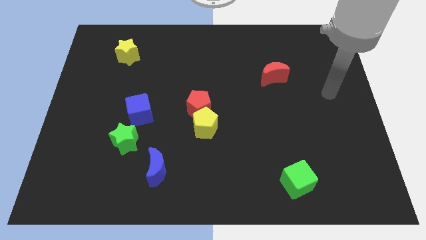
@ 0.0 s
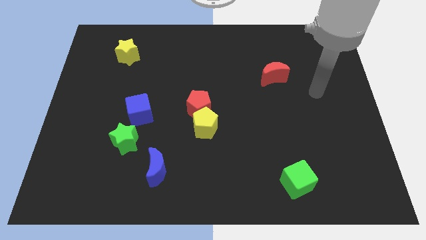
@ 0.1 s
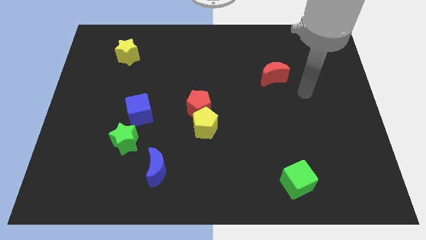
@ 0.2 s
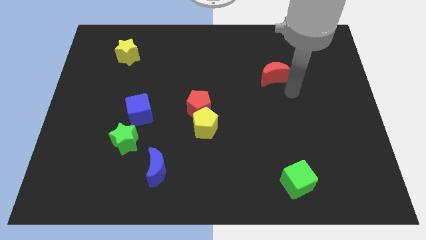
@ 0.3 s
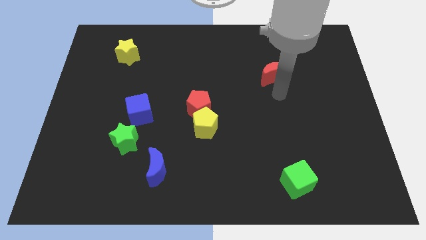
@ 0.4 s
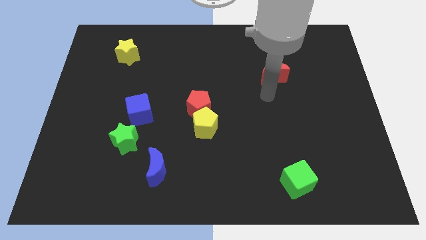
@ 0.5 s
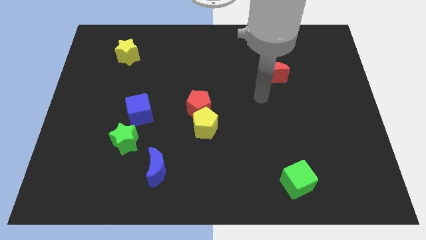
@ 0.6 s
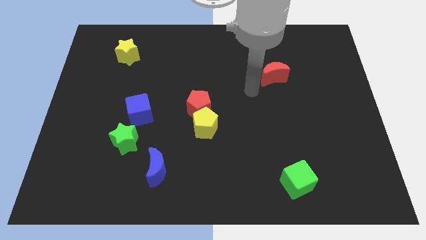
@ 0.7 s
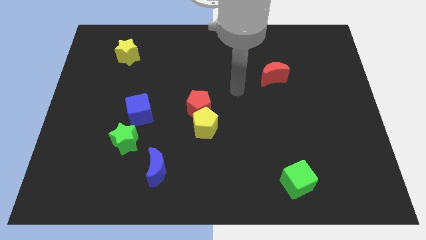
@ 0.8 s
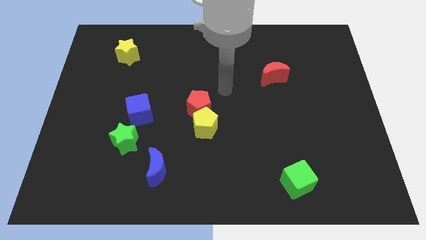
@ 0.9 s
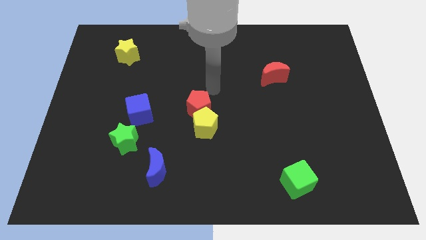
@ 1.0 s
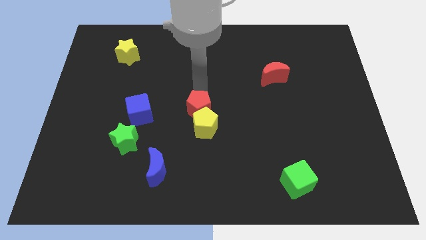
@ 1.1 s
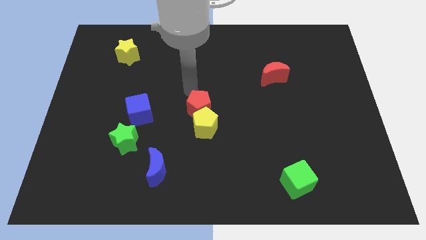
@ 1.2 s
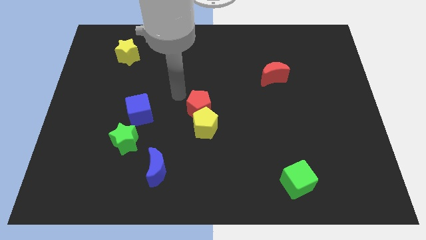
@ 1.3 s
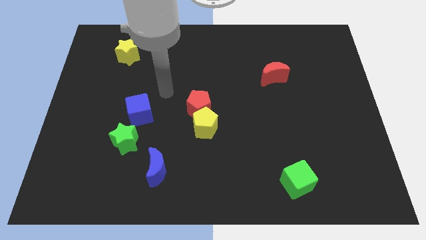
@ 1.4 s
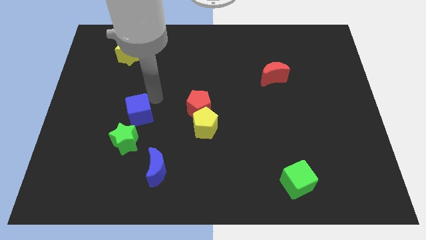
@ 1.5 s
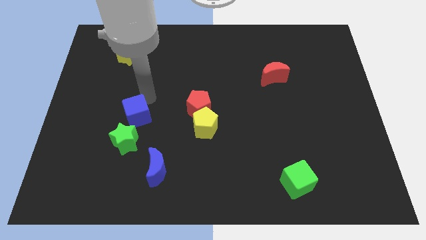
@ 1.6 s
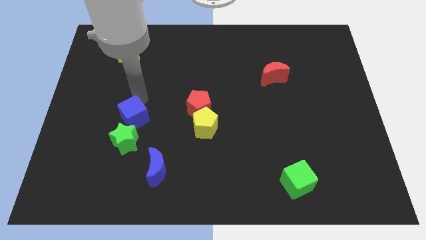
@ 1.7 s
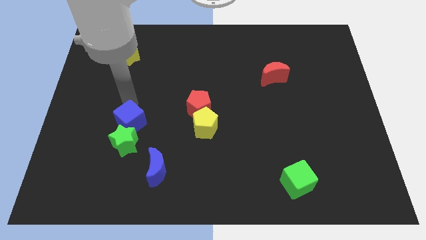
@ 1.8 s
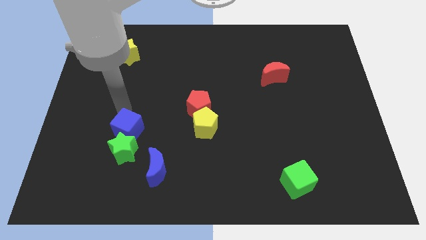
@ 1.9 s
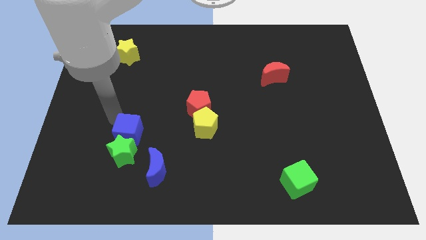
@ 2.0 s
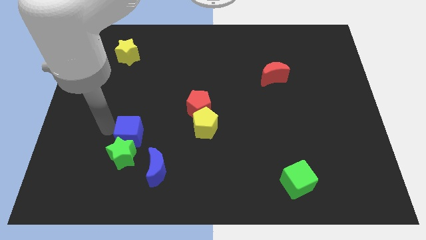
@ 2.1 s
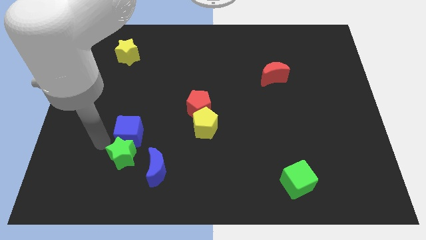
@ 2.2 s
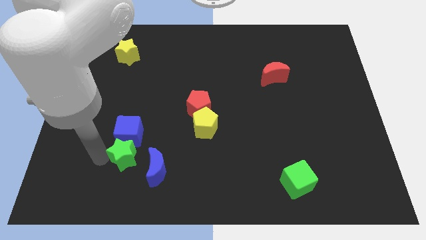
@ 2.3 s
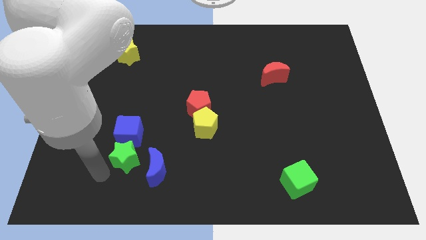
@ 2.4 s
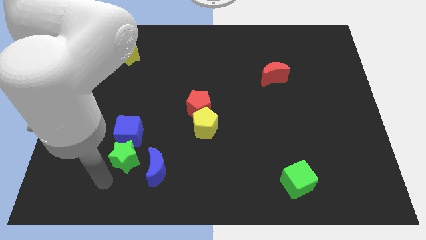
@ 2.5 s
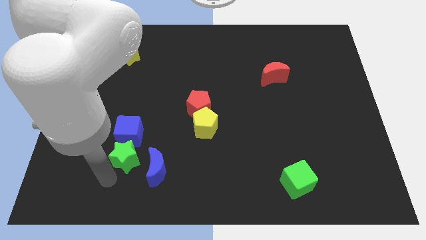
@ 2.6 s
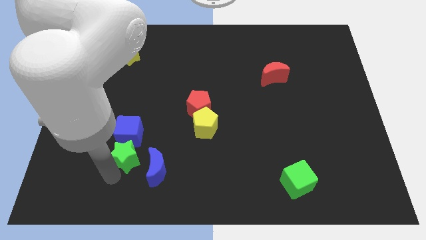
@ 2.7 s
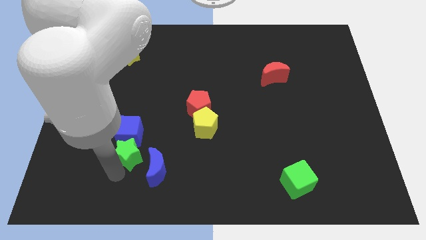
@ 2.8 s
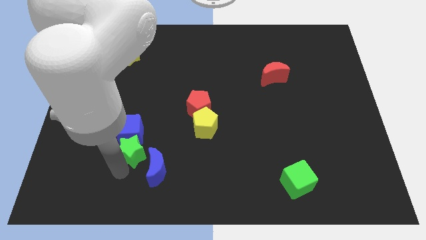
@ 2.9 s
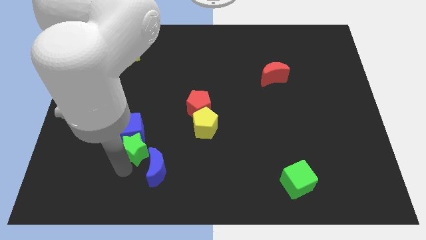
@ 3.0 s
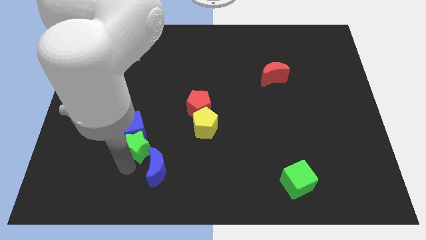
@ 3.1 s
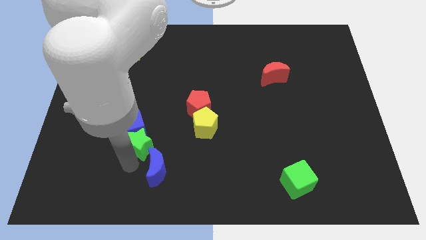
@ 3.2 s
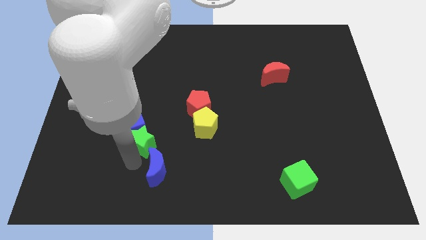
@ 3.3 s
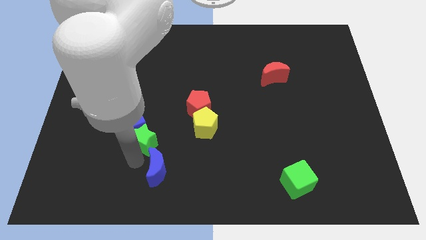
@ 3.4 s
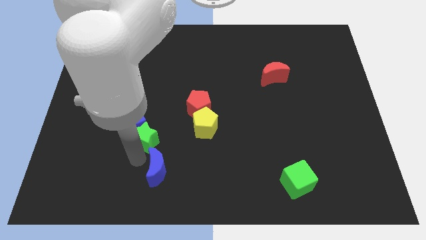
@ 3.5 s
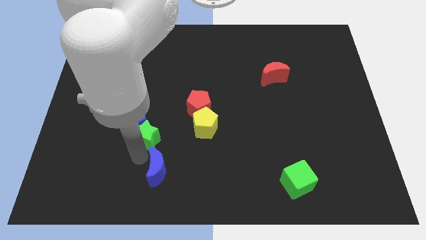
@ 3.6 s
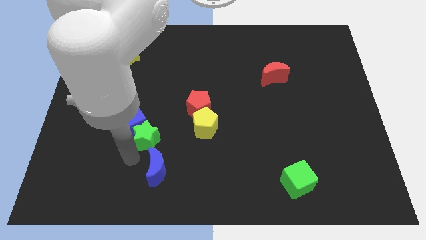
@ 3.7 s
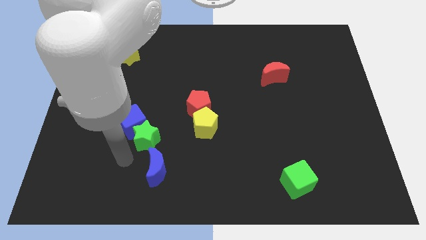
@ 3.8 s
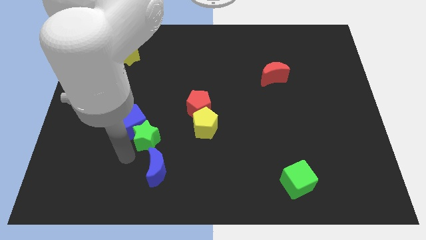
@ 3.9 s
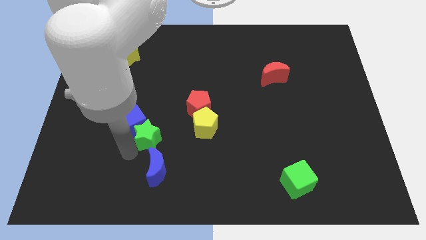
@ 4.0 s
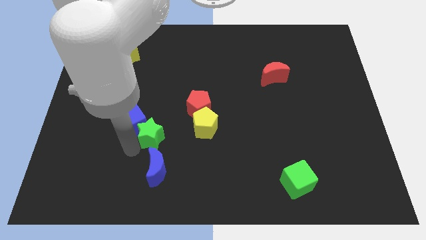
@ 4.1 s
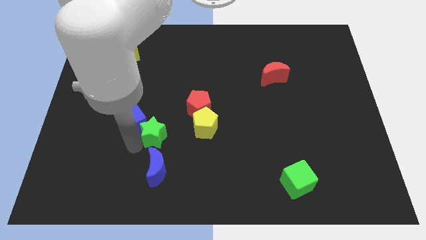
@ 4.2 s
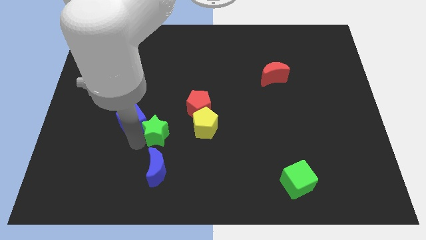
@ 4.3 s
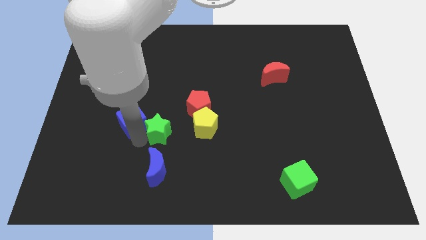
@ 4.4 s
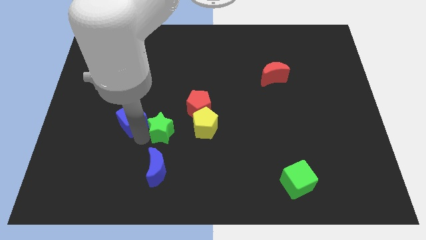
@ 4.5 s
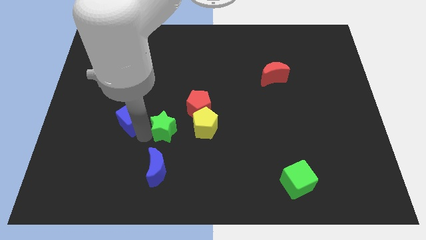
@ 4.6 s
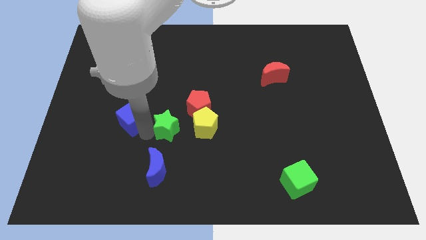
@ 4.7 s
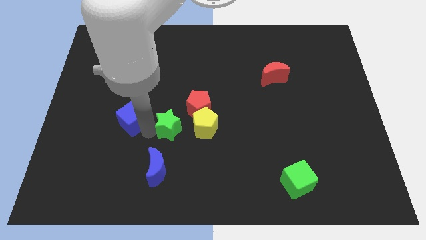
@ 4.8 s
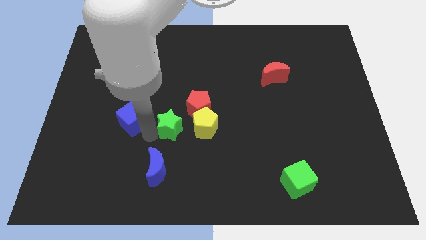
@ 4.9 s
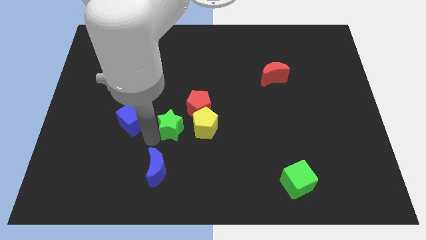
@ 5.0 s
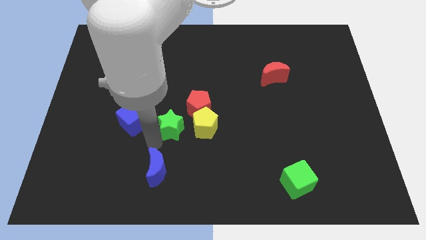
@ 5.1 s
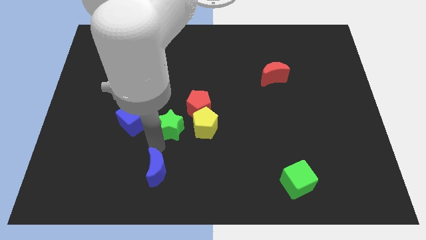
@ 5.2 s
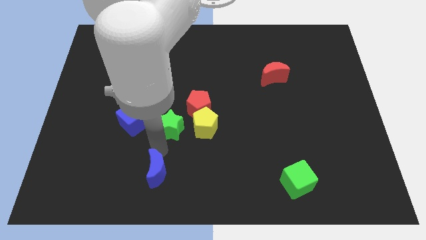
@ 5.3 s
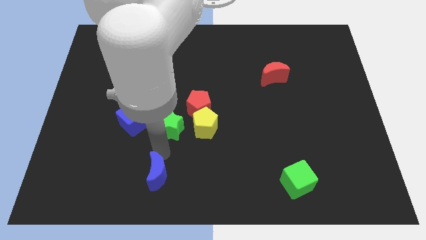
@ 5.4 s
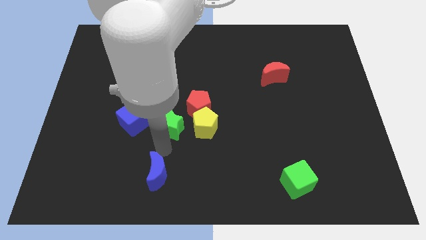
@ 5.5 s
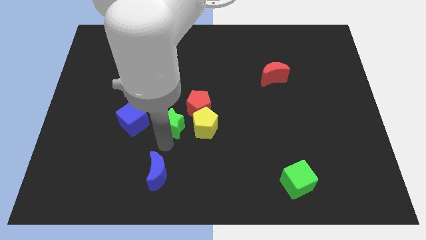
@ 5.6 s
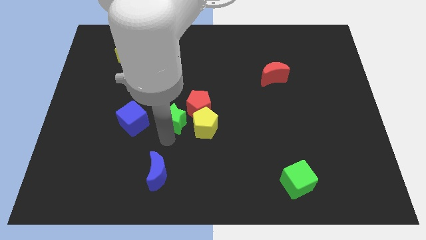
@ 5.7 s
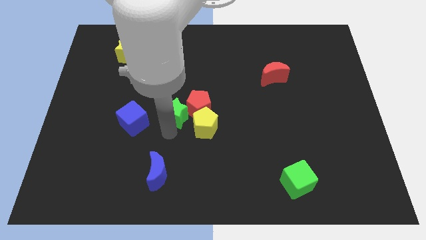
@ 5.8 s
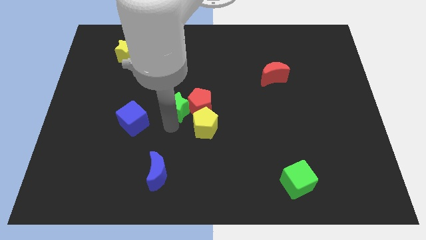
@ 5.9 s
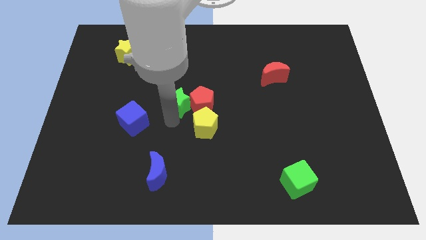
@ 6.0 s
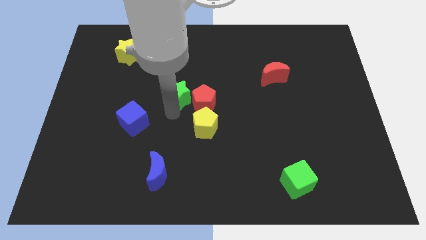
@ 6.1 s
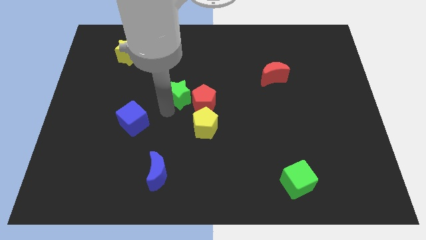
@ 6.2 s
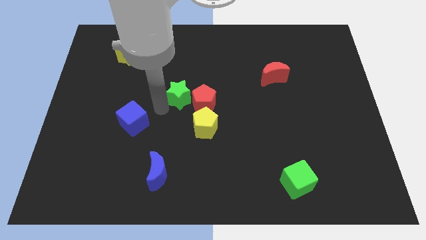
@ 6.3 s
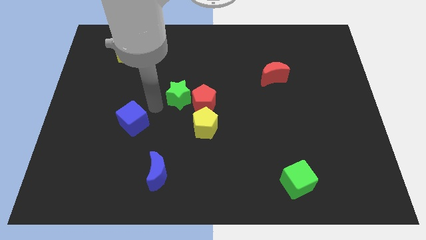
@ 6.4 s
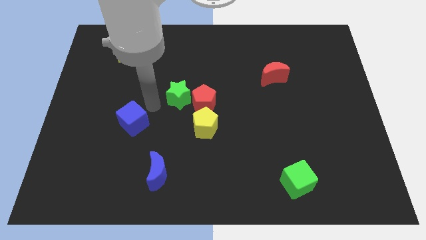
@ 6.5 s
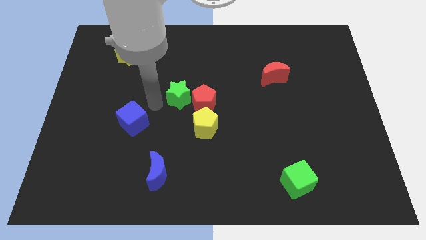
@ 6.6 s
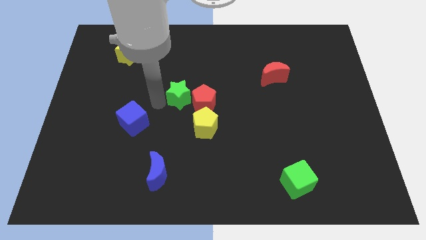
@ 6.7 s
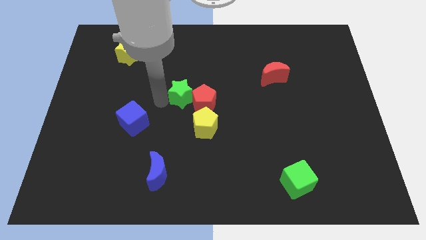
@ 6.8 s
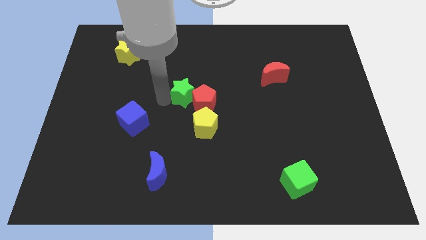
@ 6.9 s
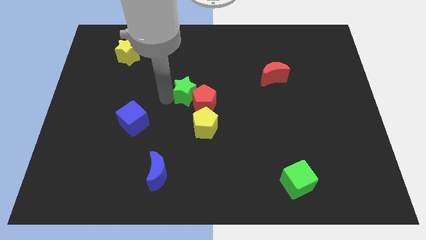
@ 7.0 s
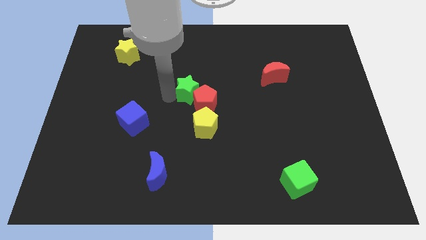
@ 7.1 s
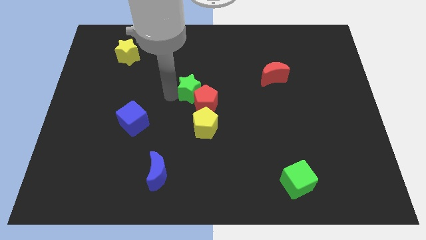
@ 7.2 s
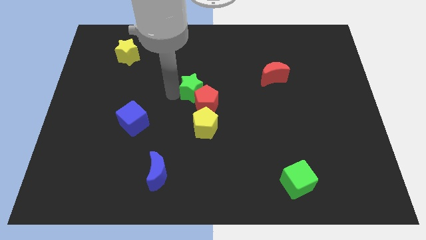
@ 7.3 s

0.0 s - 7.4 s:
move the green star diagonally up and right

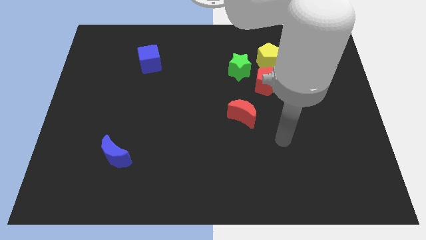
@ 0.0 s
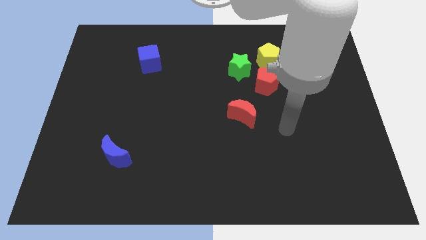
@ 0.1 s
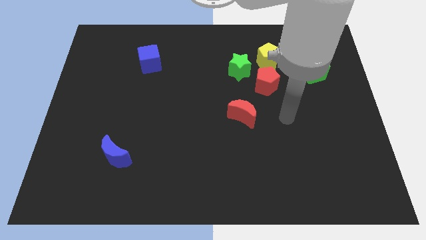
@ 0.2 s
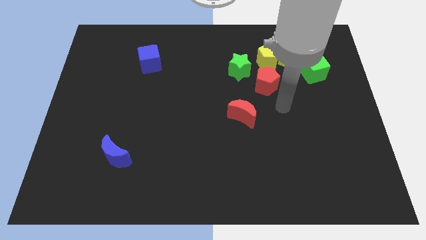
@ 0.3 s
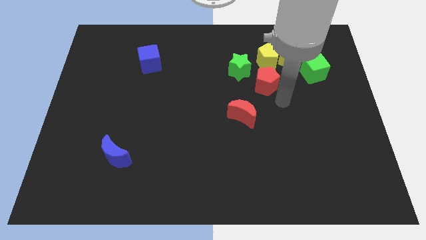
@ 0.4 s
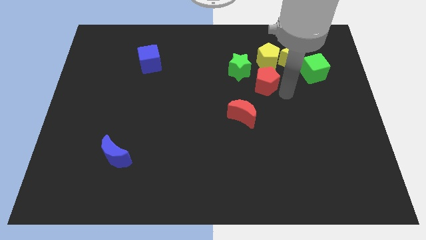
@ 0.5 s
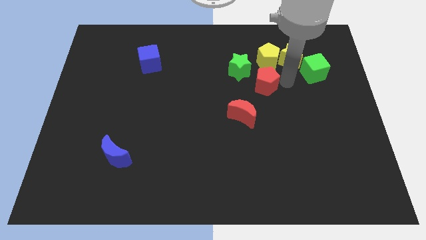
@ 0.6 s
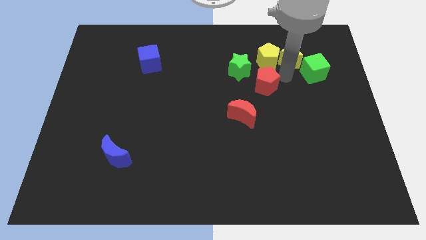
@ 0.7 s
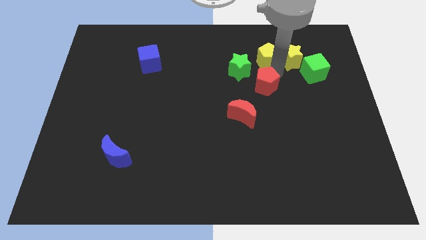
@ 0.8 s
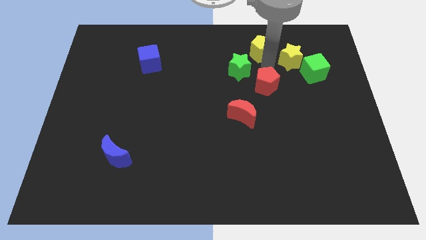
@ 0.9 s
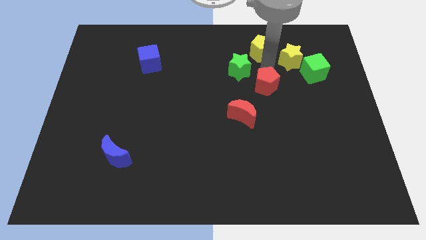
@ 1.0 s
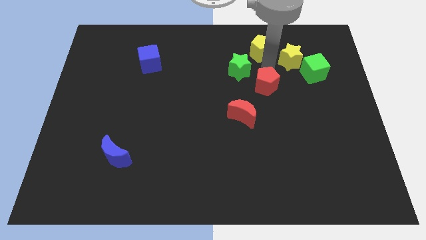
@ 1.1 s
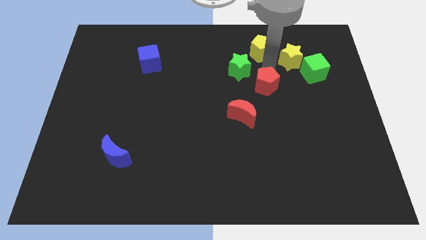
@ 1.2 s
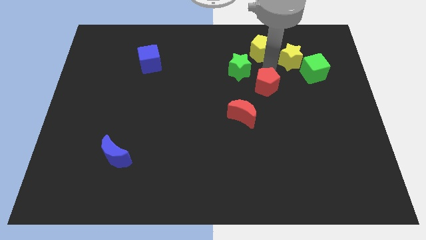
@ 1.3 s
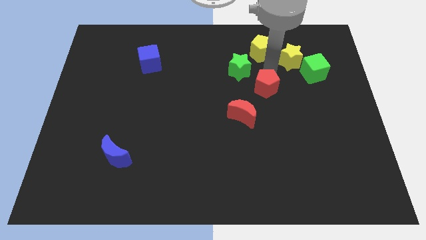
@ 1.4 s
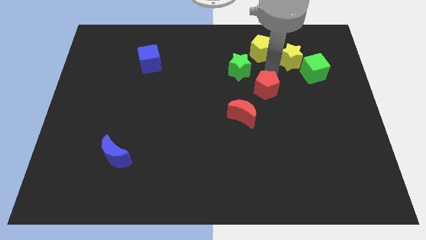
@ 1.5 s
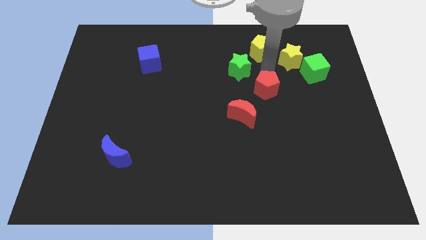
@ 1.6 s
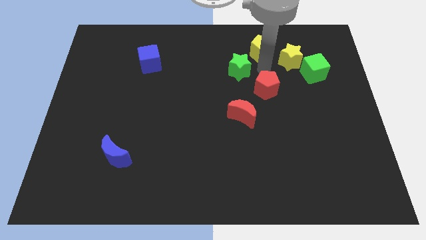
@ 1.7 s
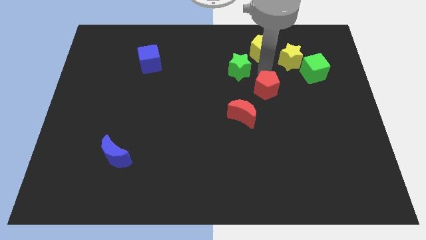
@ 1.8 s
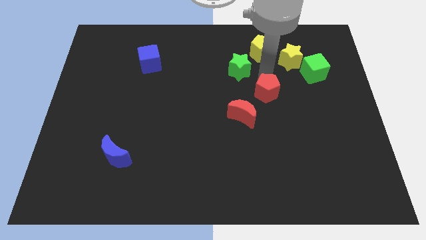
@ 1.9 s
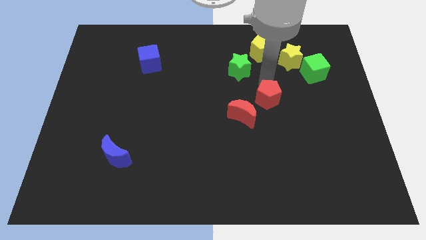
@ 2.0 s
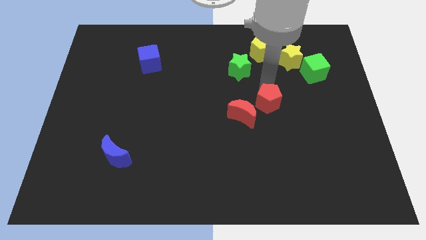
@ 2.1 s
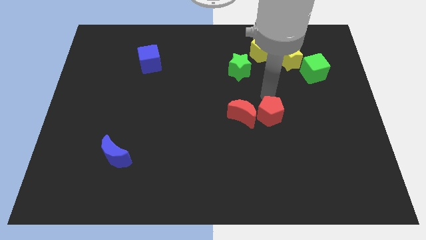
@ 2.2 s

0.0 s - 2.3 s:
slightly move the red pentagon downwards
